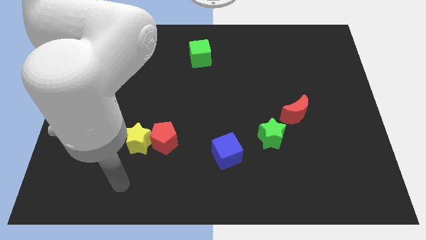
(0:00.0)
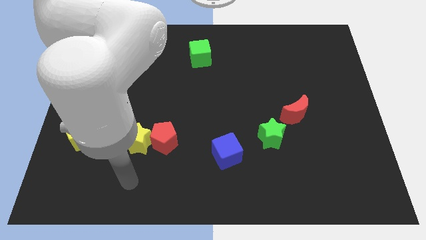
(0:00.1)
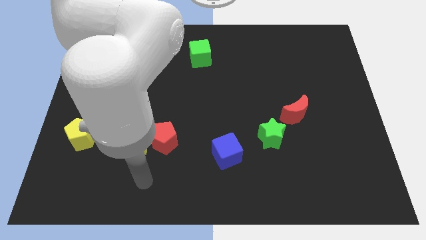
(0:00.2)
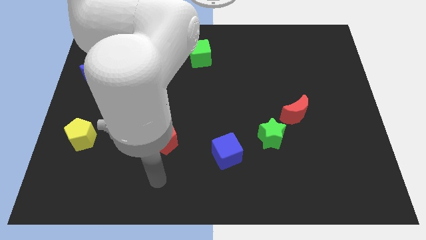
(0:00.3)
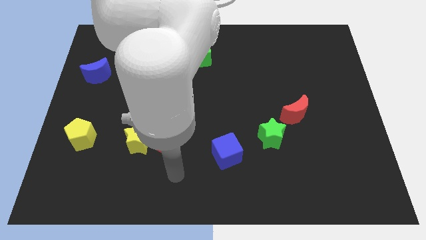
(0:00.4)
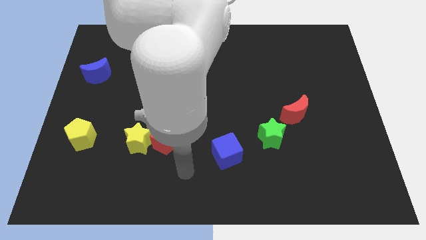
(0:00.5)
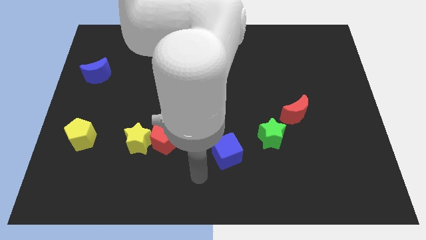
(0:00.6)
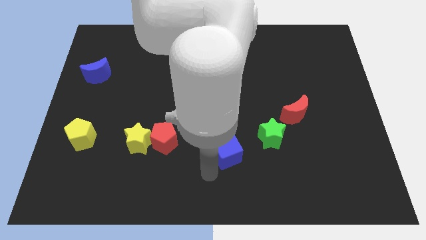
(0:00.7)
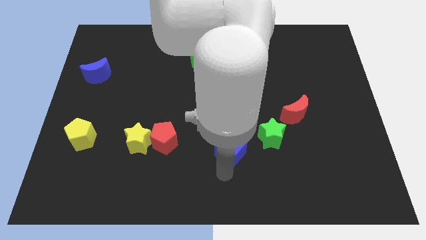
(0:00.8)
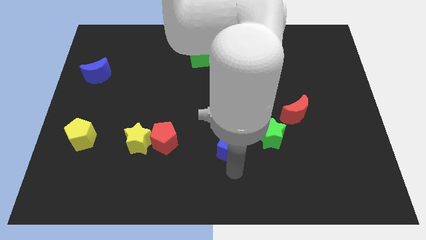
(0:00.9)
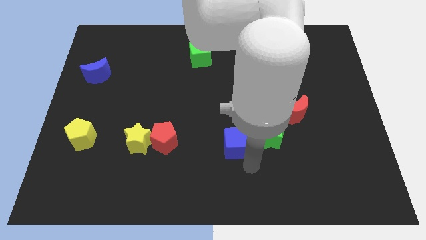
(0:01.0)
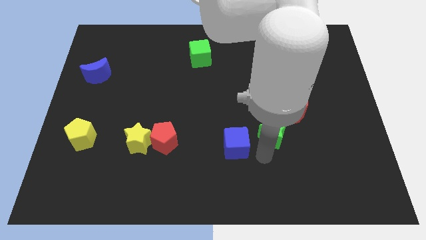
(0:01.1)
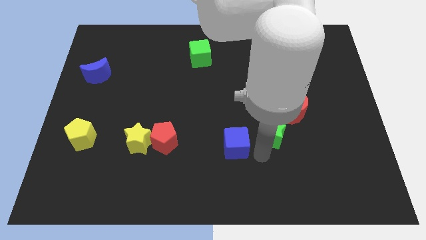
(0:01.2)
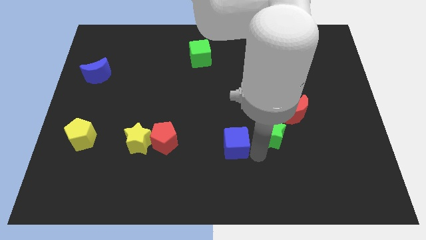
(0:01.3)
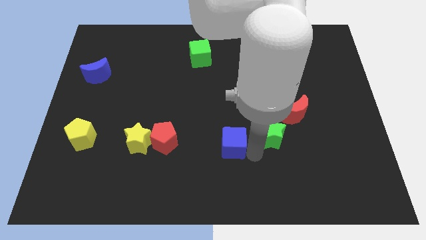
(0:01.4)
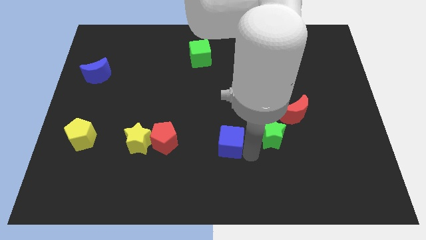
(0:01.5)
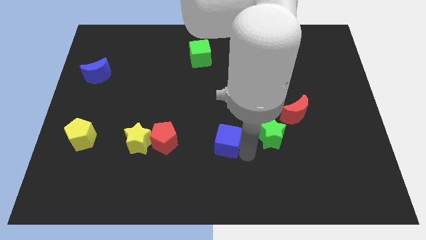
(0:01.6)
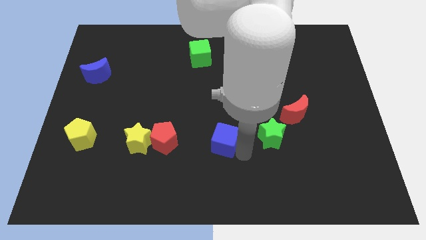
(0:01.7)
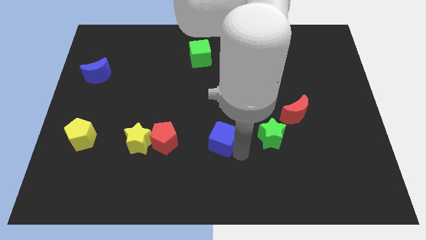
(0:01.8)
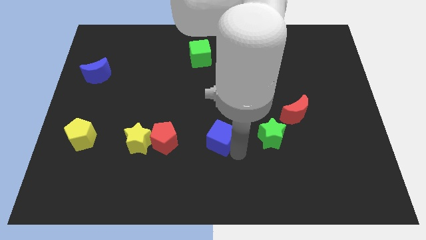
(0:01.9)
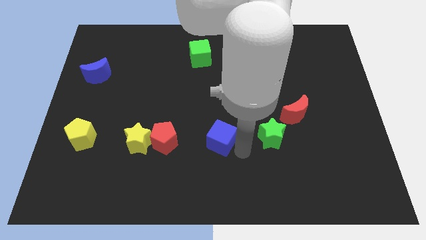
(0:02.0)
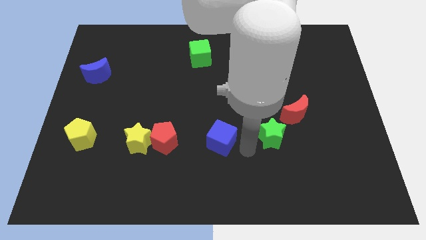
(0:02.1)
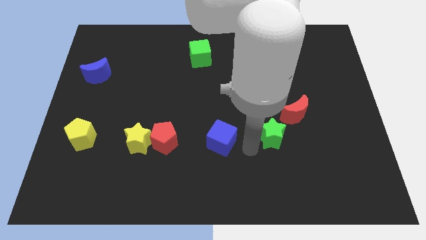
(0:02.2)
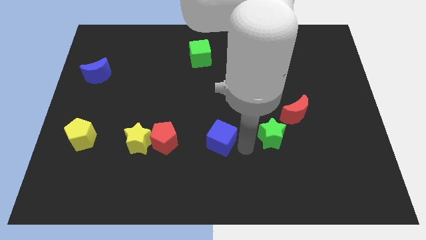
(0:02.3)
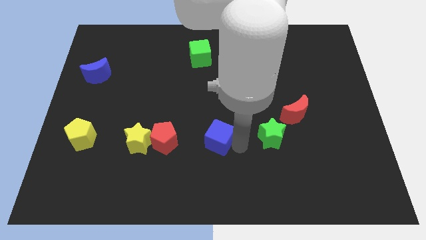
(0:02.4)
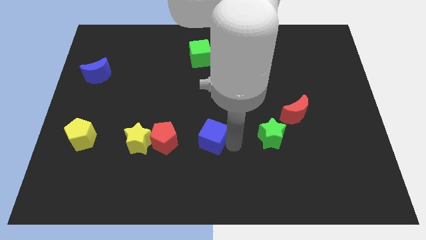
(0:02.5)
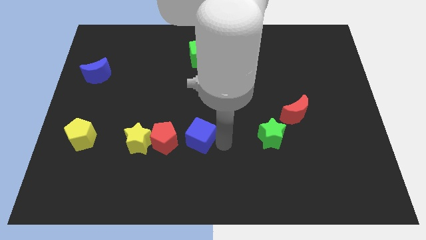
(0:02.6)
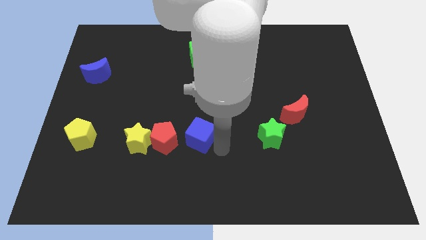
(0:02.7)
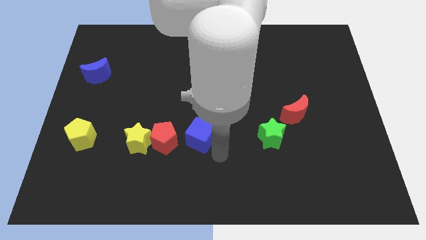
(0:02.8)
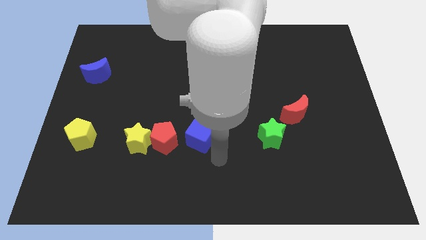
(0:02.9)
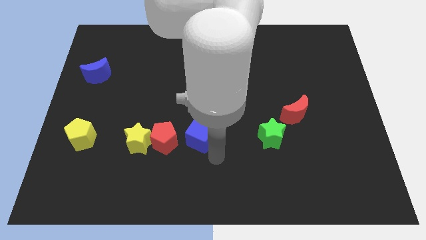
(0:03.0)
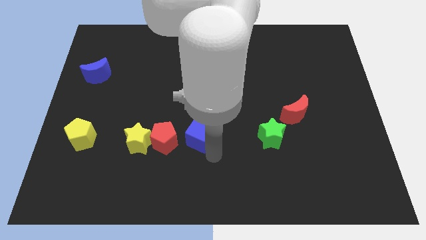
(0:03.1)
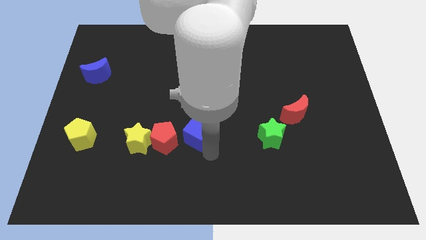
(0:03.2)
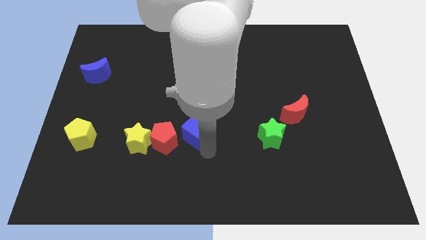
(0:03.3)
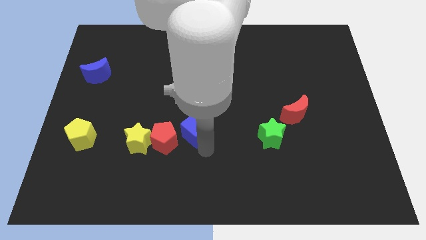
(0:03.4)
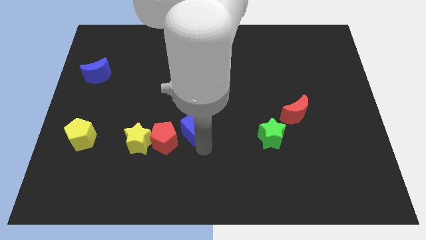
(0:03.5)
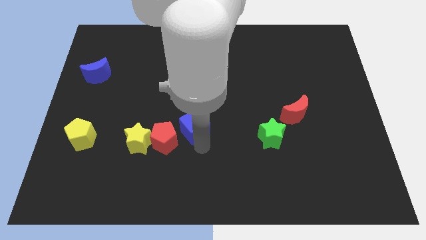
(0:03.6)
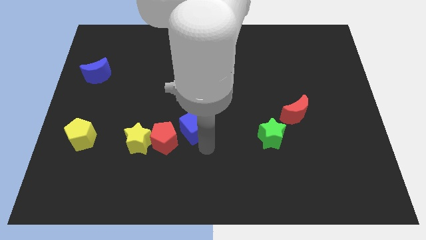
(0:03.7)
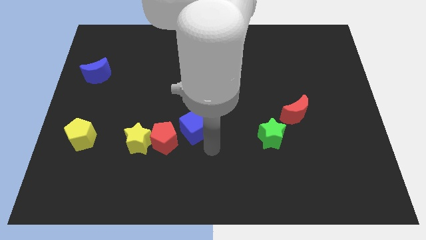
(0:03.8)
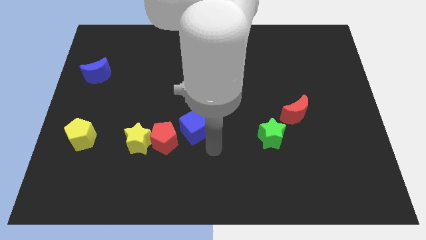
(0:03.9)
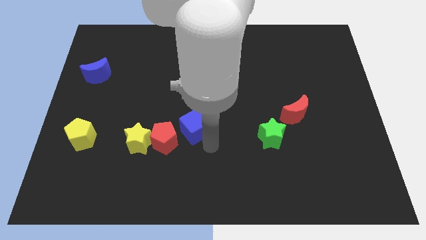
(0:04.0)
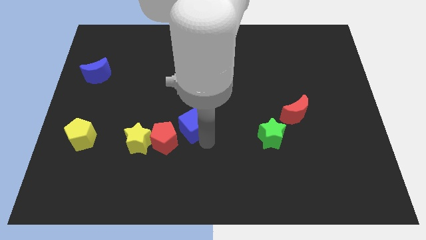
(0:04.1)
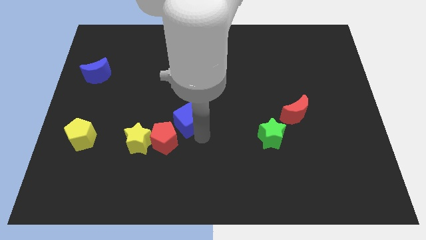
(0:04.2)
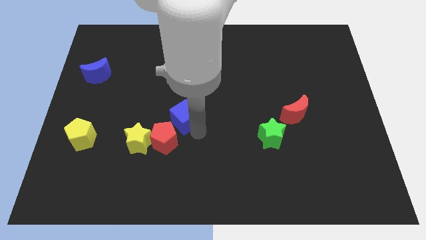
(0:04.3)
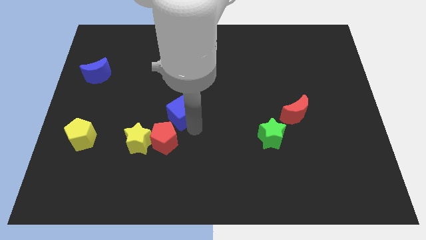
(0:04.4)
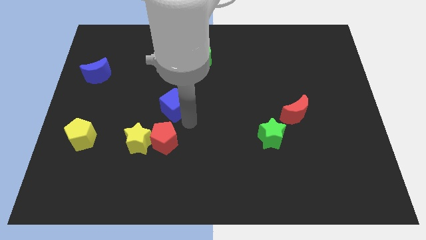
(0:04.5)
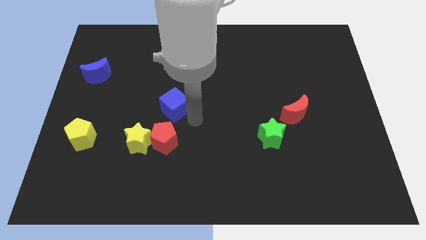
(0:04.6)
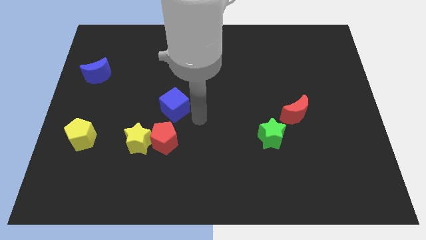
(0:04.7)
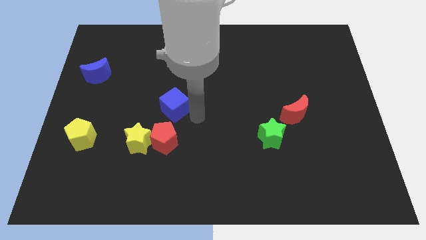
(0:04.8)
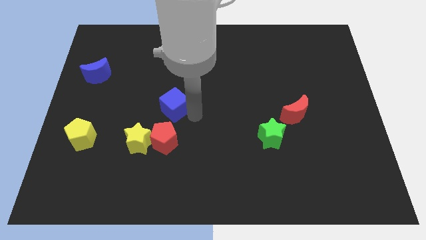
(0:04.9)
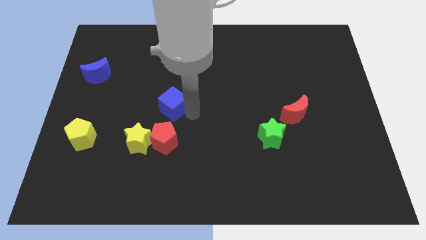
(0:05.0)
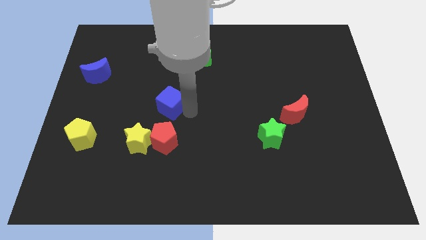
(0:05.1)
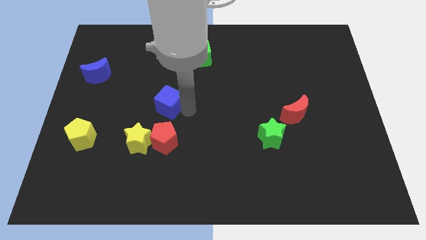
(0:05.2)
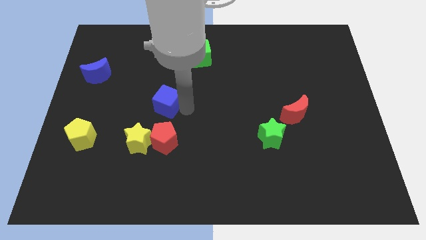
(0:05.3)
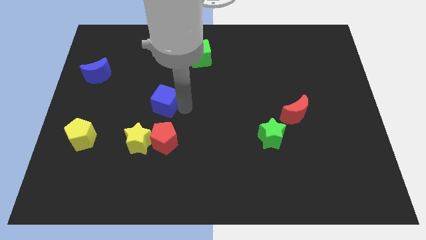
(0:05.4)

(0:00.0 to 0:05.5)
push the blue cube diagonally up and left

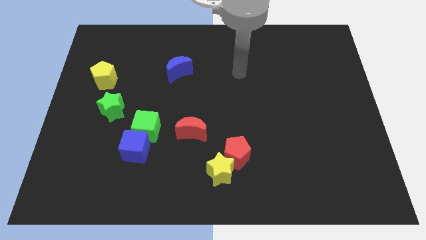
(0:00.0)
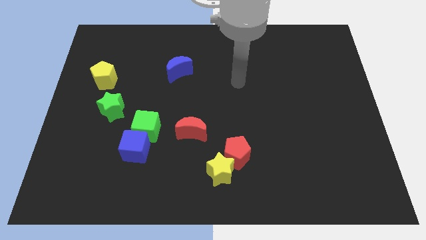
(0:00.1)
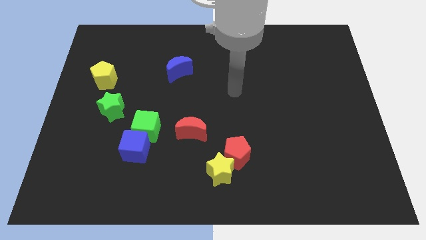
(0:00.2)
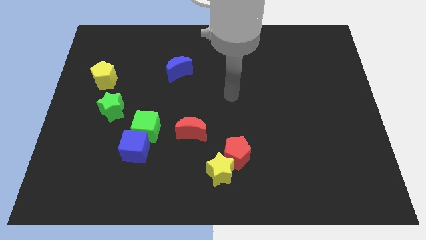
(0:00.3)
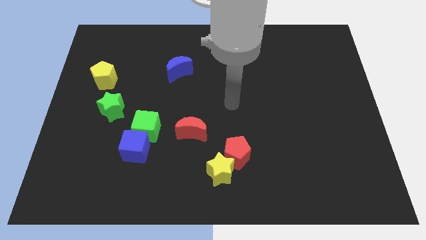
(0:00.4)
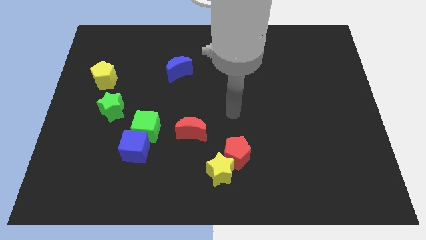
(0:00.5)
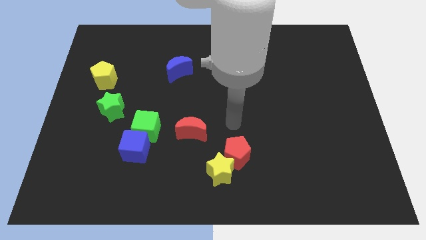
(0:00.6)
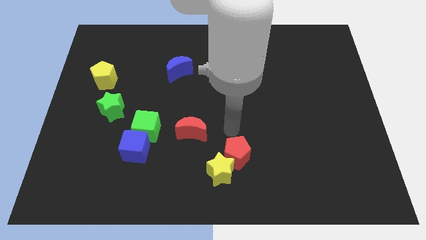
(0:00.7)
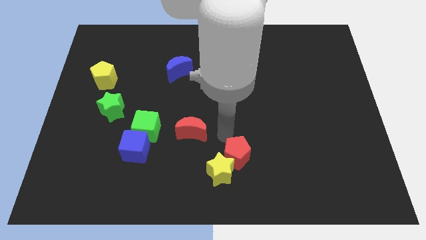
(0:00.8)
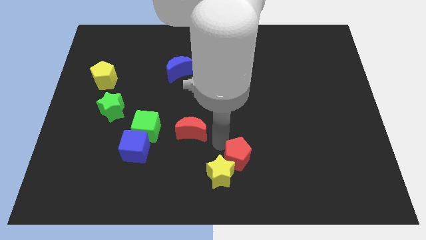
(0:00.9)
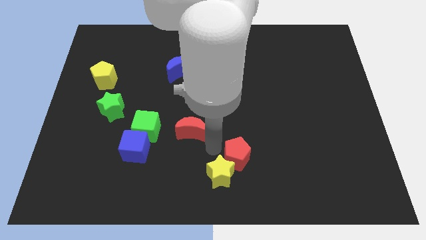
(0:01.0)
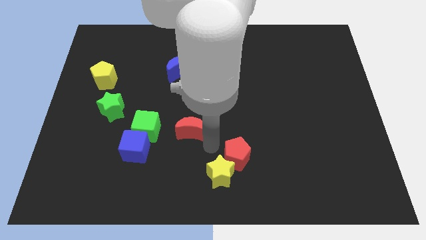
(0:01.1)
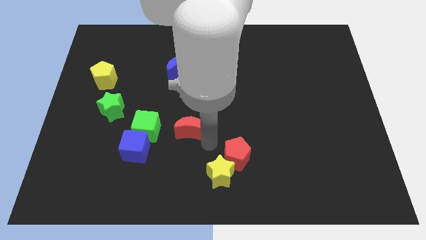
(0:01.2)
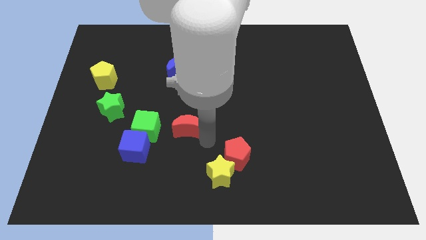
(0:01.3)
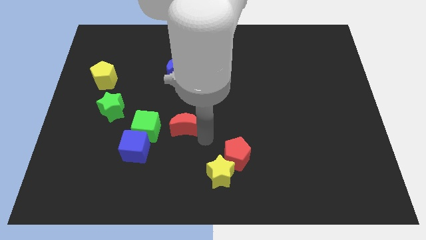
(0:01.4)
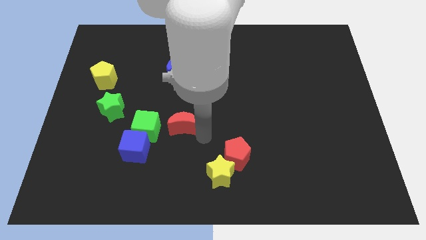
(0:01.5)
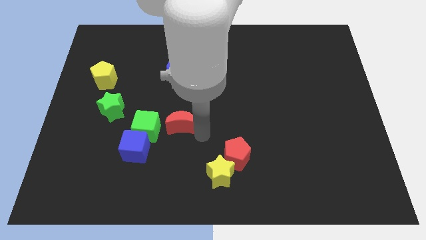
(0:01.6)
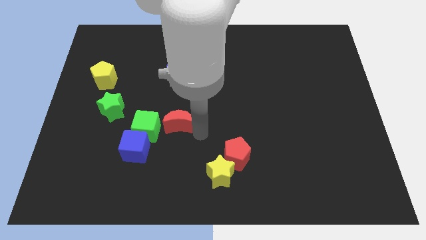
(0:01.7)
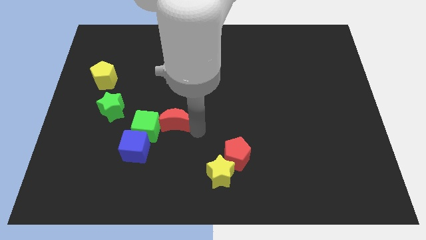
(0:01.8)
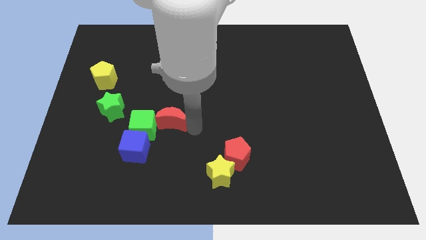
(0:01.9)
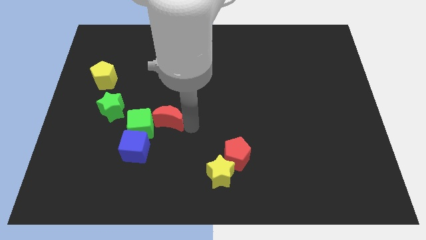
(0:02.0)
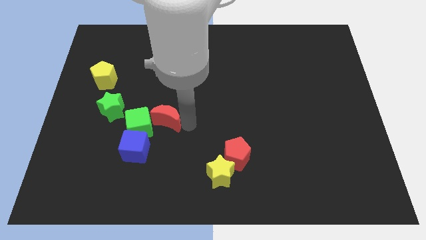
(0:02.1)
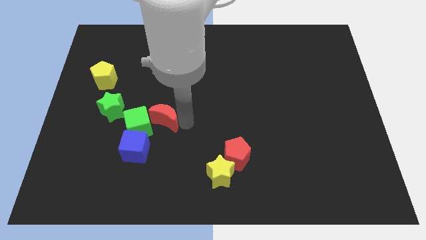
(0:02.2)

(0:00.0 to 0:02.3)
push the red moon upwards and to the left diagonally a bit

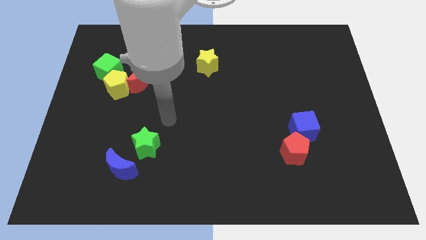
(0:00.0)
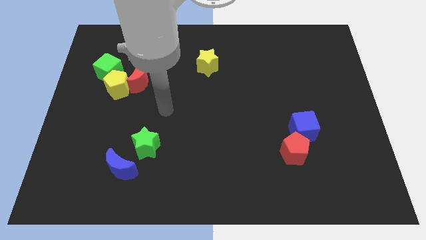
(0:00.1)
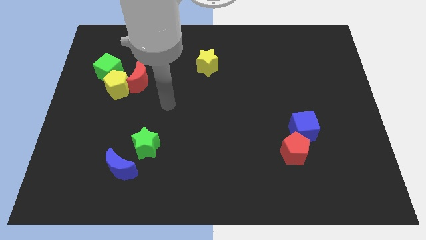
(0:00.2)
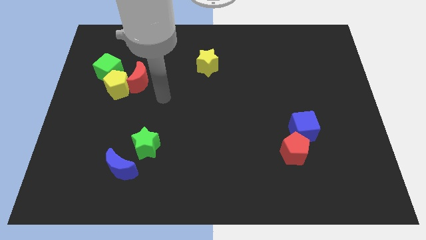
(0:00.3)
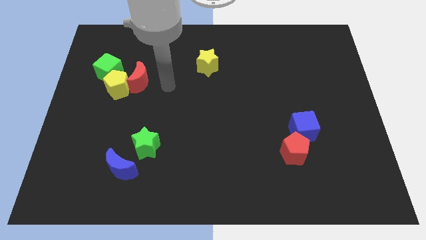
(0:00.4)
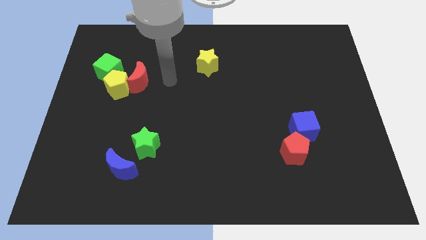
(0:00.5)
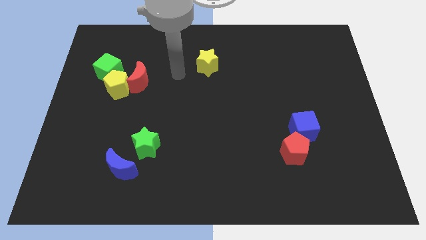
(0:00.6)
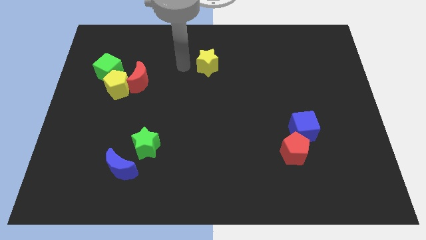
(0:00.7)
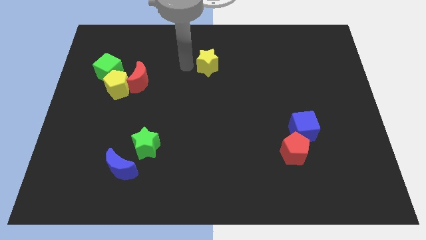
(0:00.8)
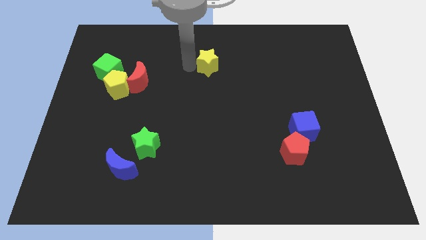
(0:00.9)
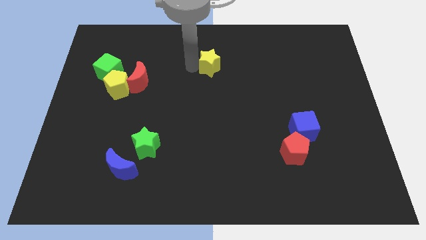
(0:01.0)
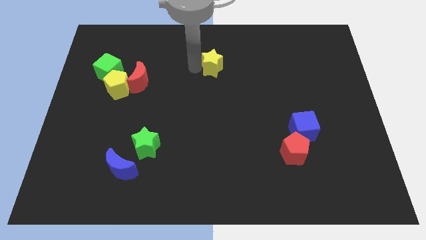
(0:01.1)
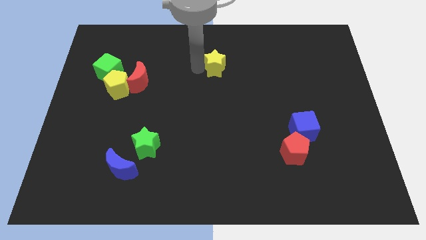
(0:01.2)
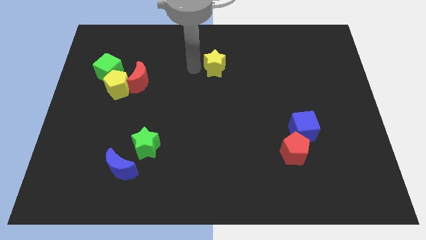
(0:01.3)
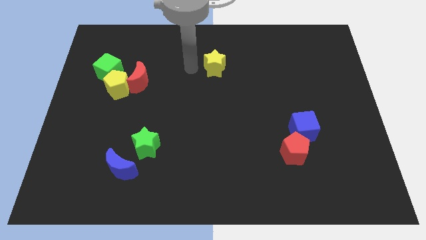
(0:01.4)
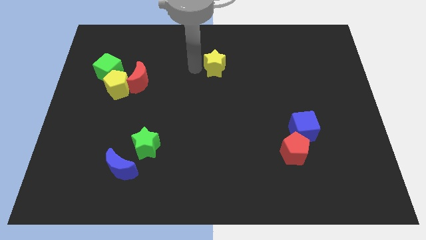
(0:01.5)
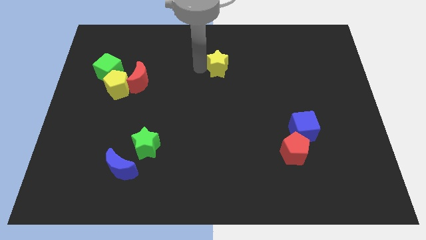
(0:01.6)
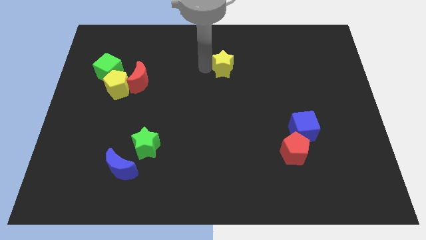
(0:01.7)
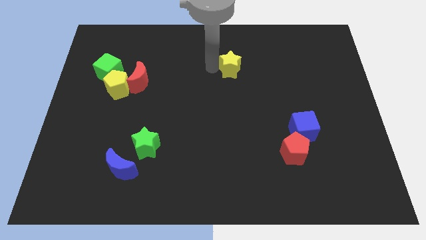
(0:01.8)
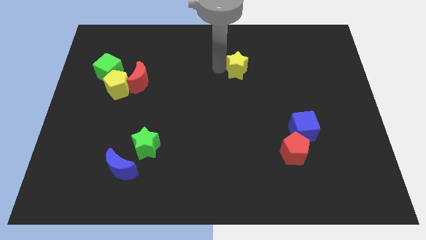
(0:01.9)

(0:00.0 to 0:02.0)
slide the yellow star a little bit right
